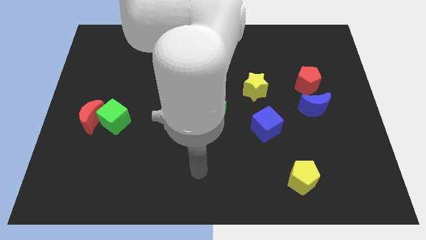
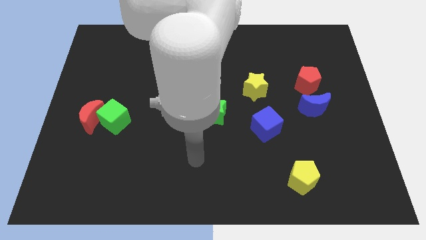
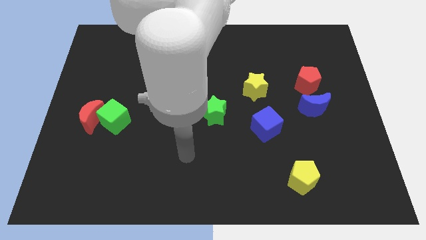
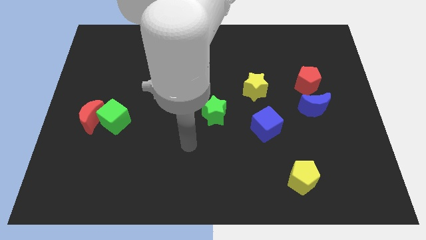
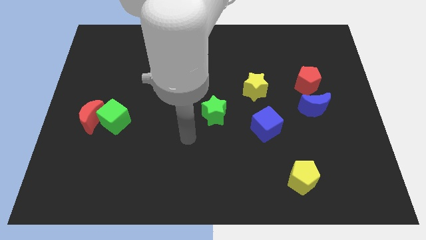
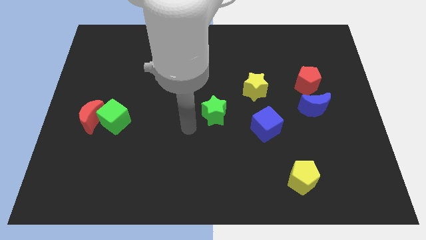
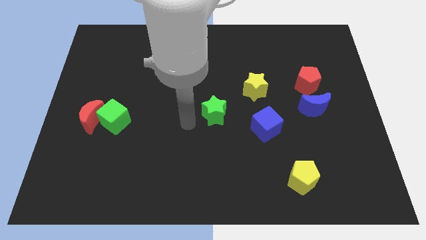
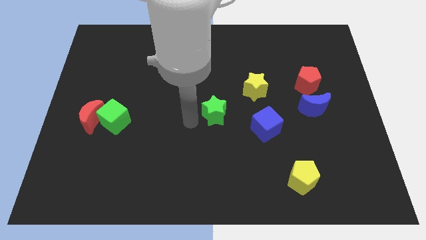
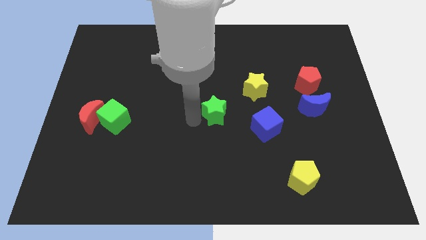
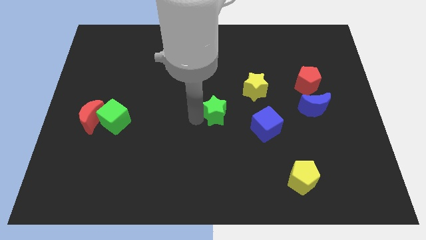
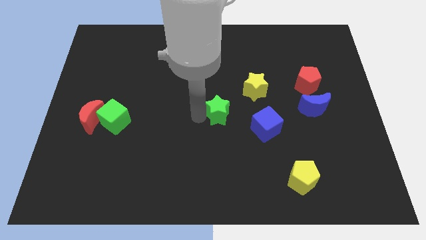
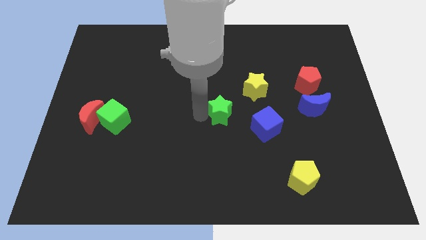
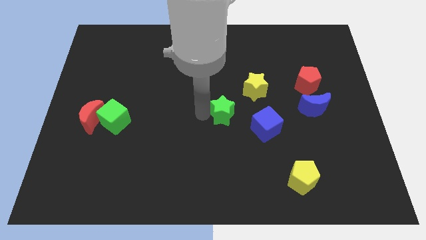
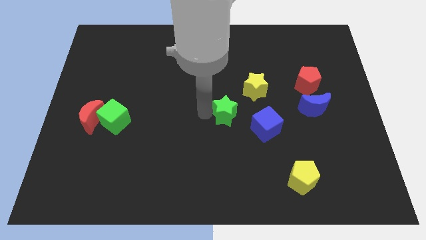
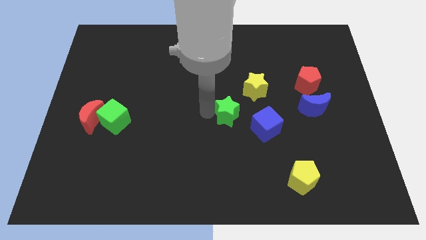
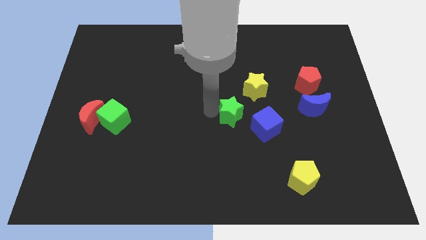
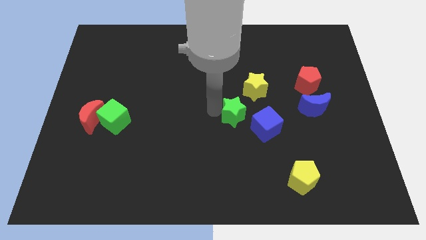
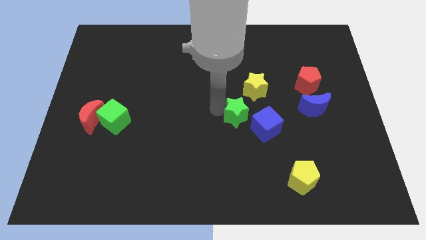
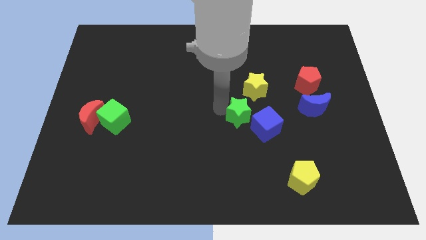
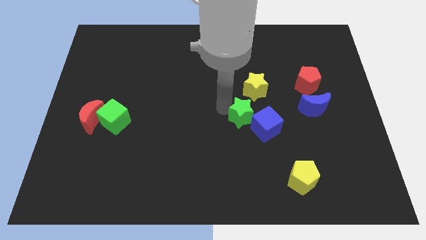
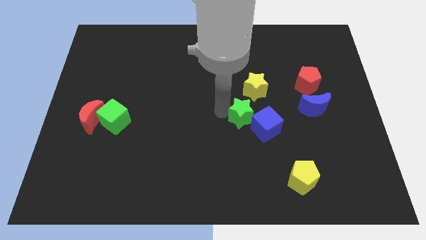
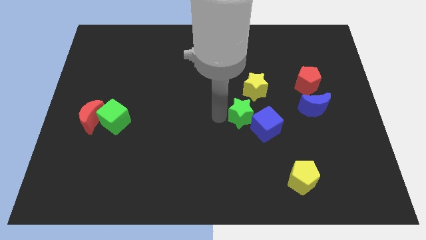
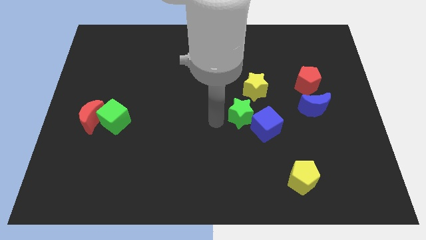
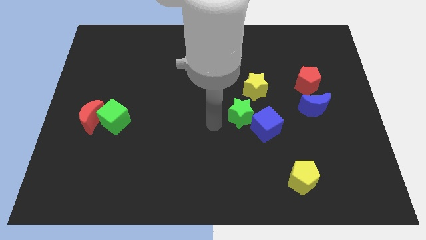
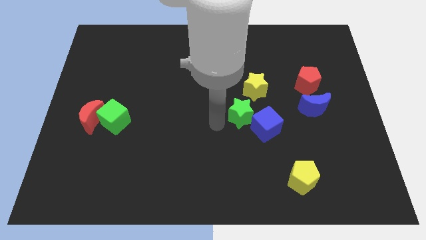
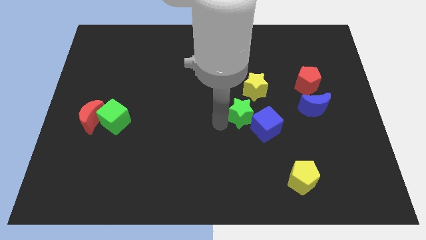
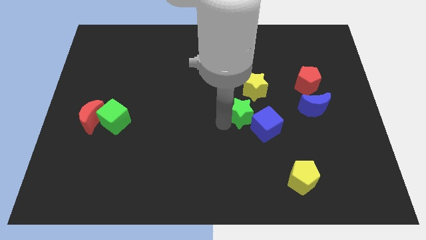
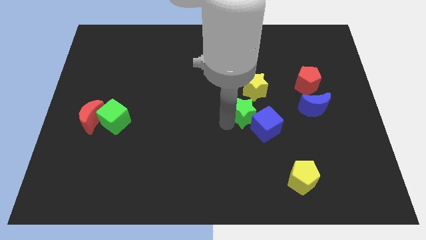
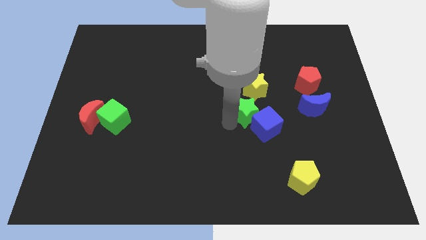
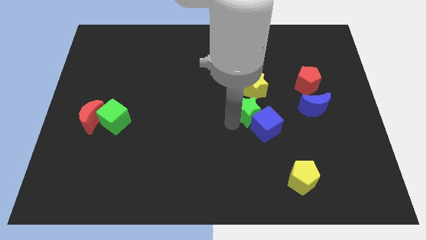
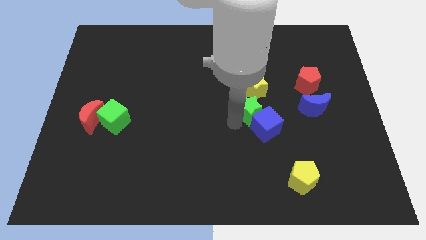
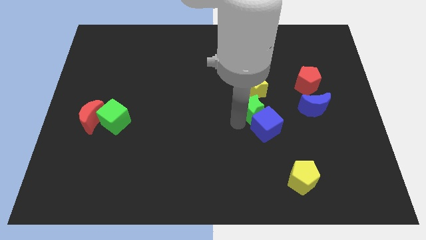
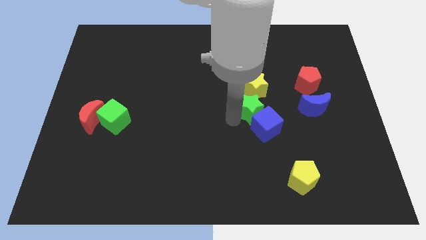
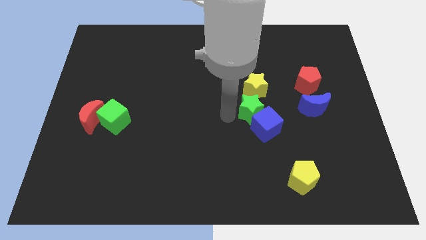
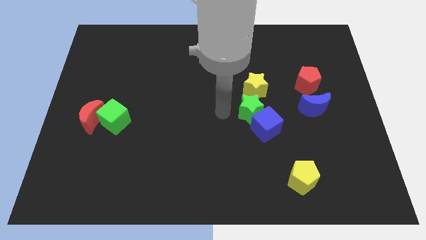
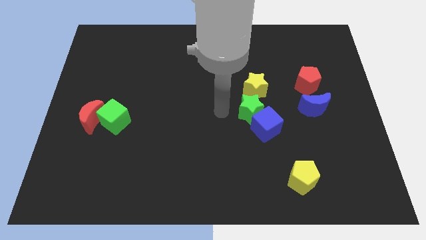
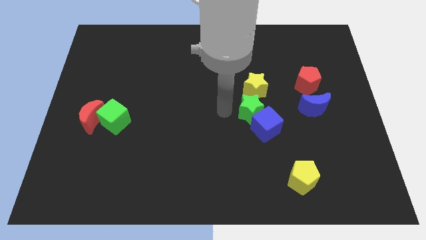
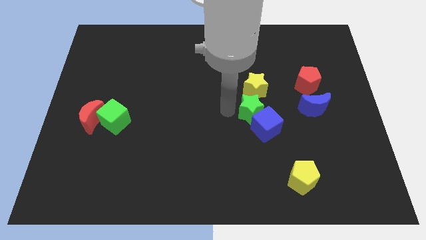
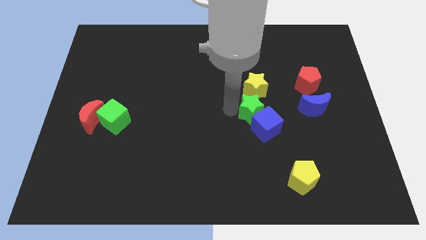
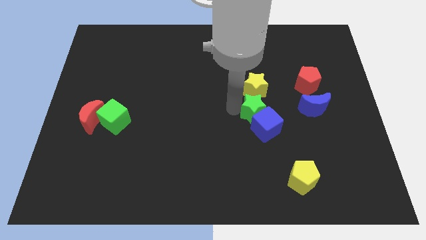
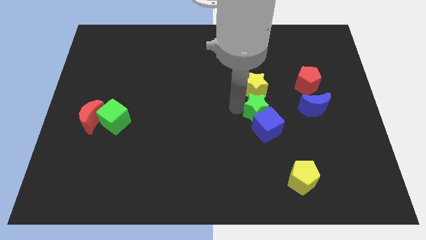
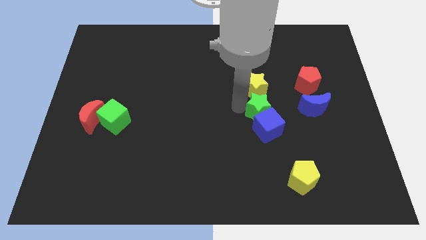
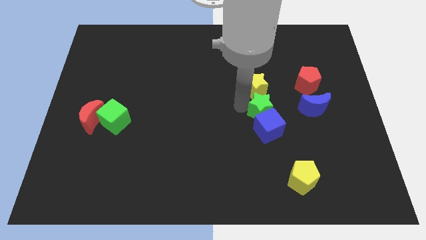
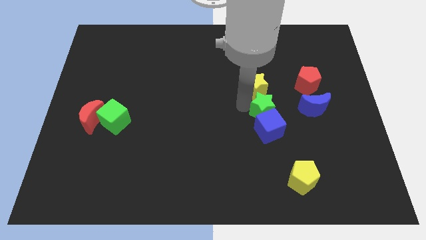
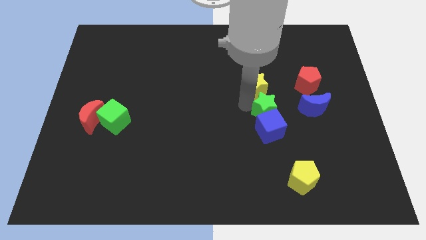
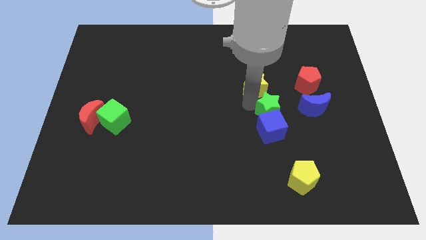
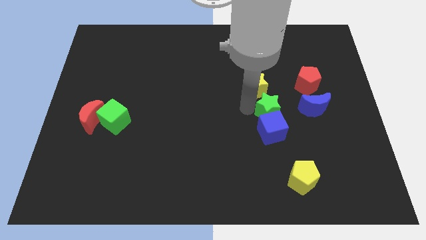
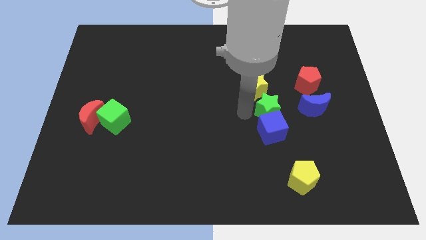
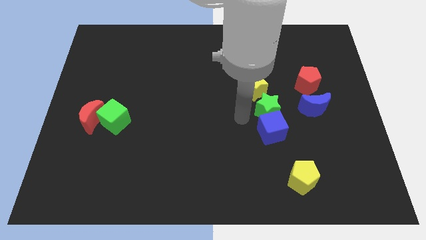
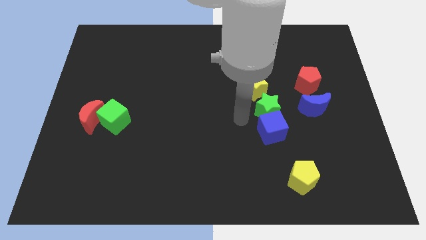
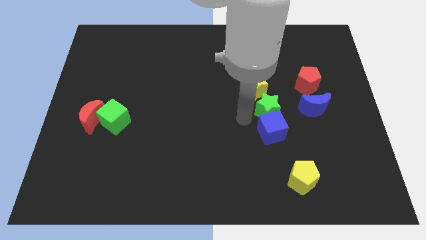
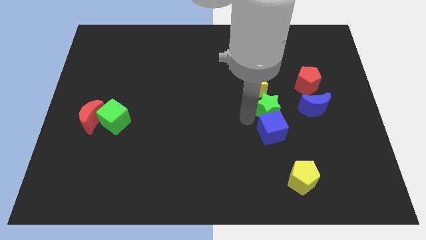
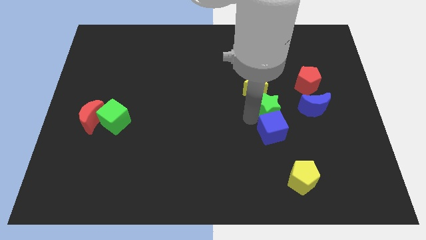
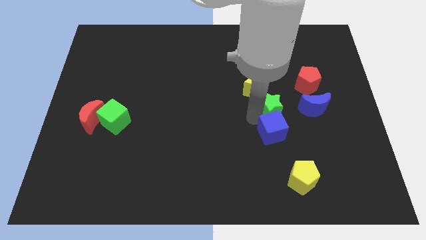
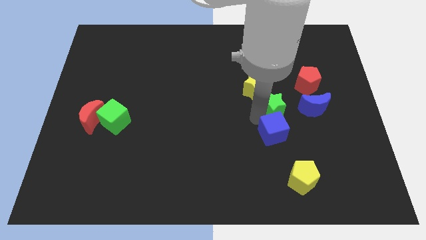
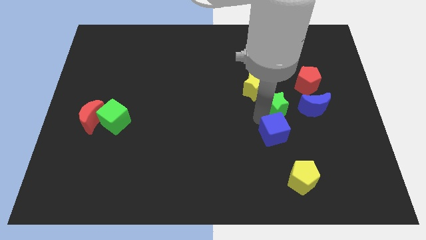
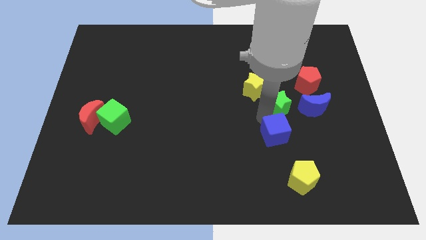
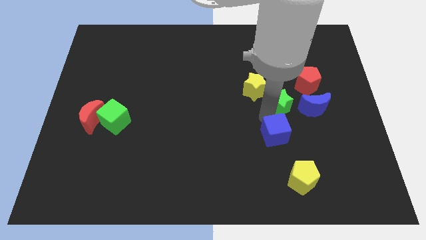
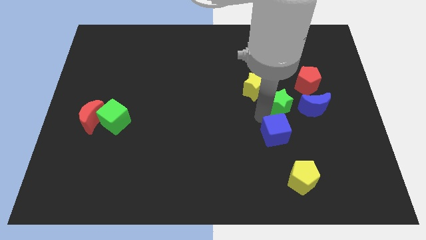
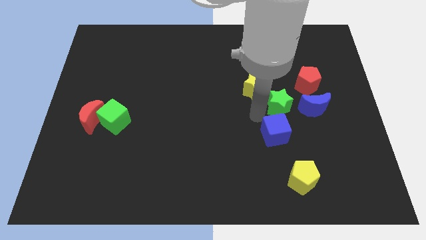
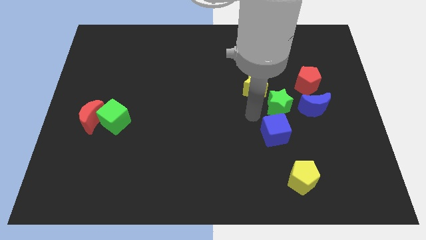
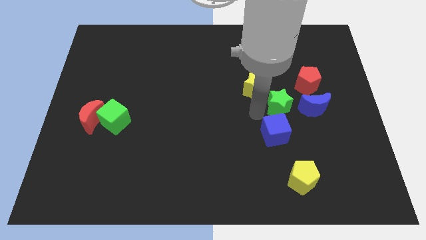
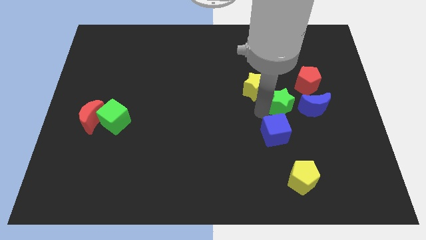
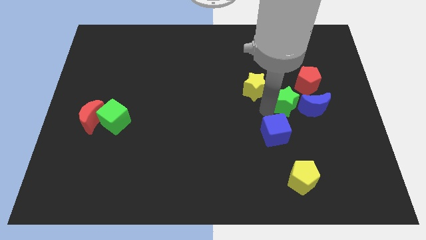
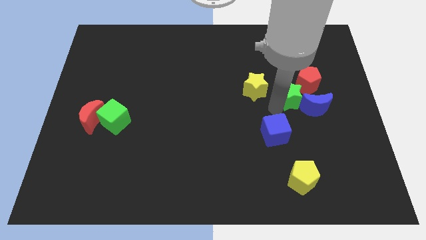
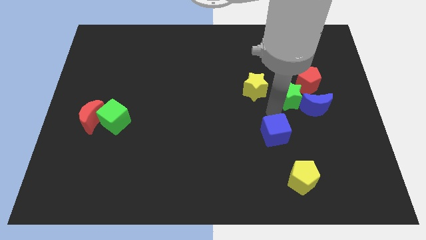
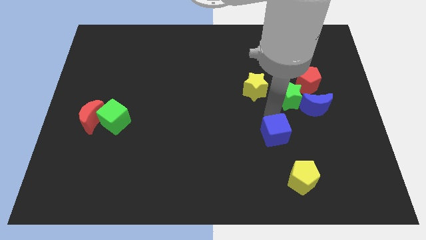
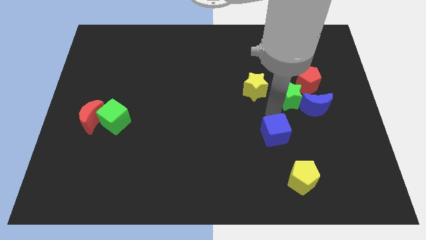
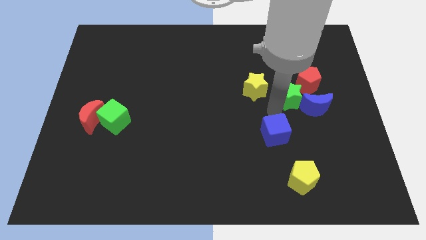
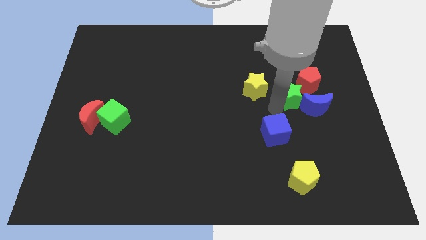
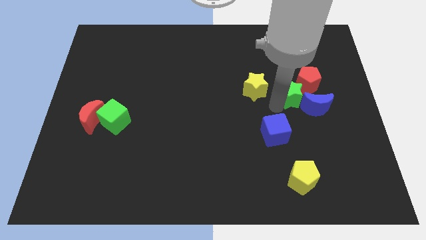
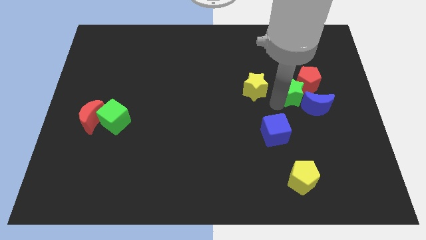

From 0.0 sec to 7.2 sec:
push the green star next to the red pentagon

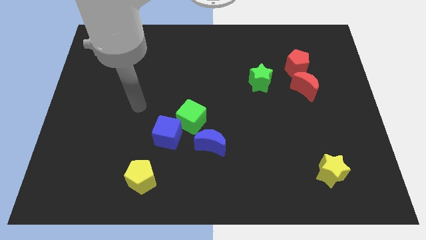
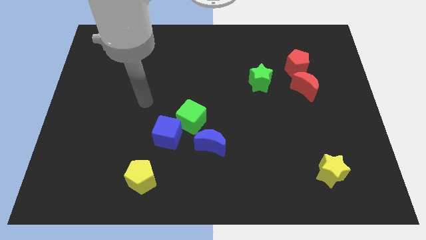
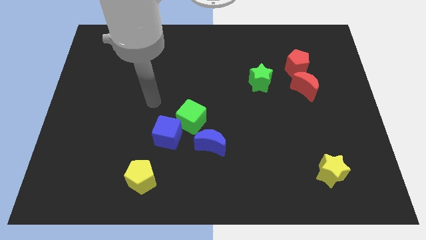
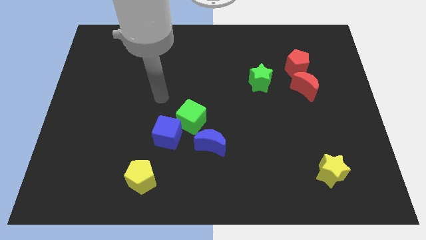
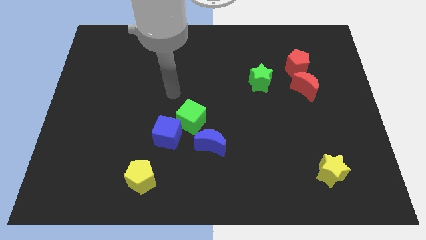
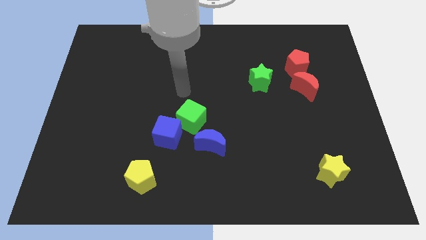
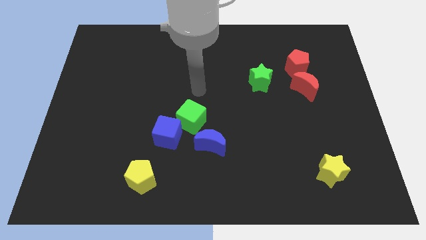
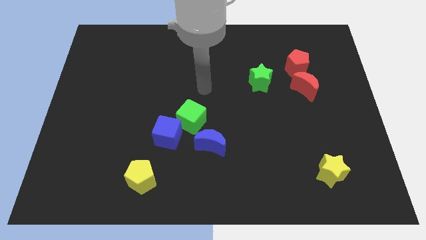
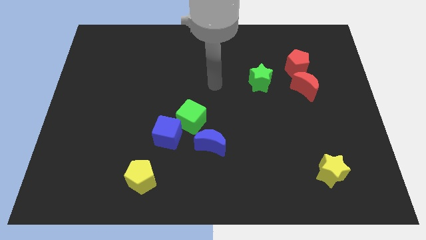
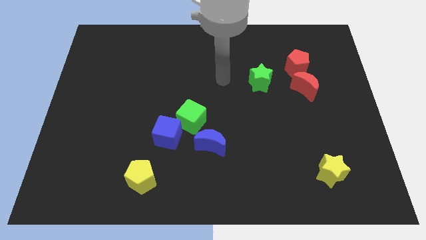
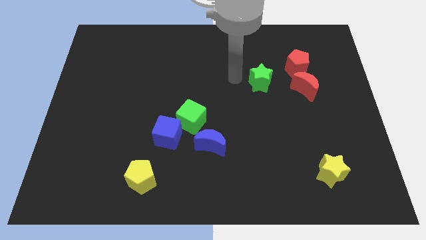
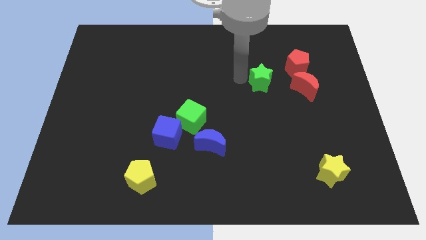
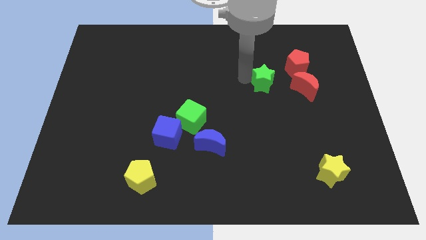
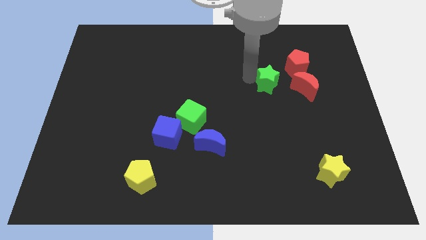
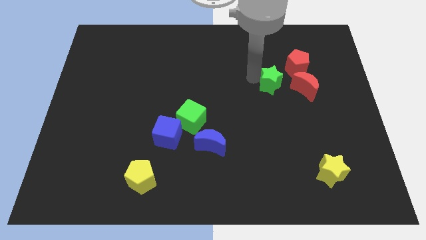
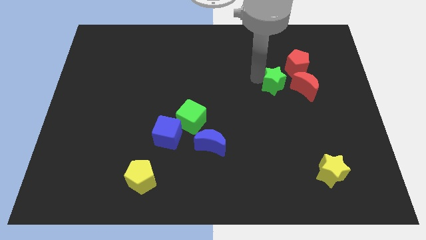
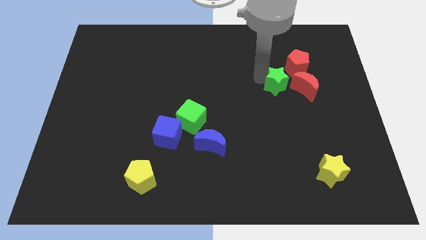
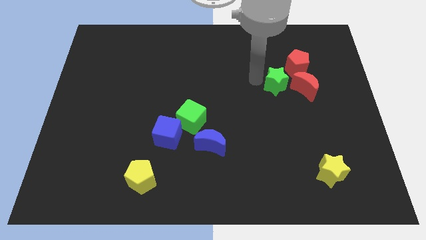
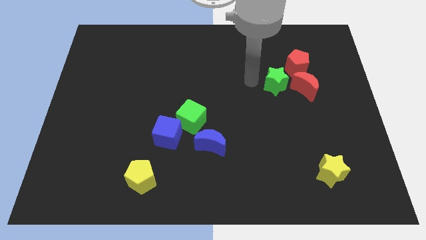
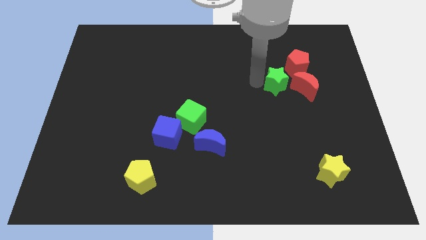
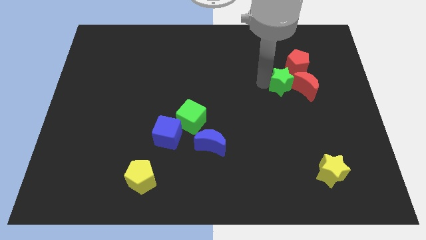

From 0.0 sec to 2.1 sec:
move the green star to the red moon
